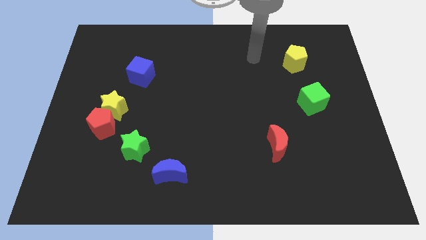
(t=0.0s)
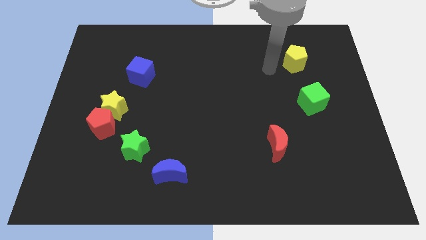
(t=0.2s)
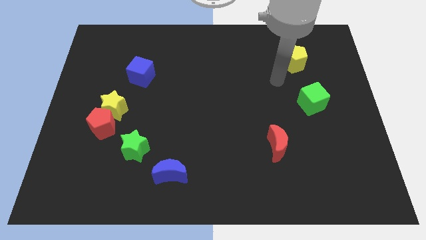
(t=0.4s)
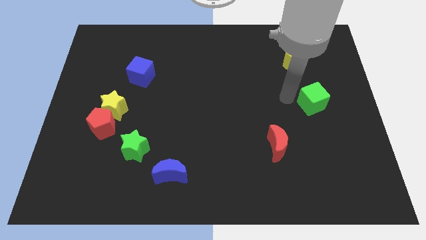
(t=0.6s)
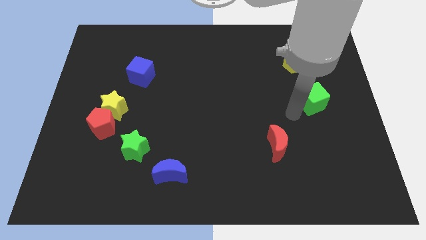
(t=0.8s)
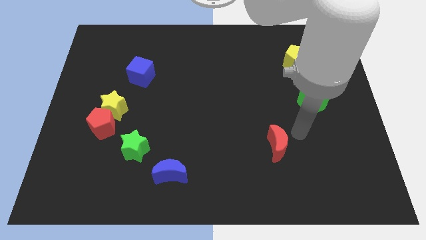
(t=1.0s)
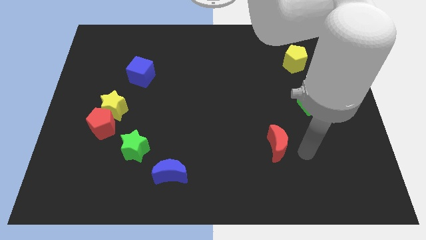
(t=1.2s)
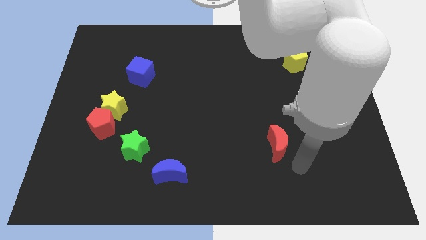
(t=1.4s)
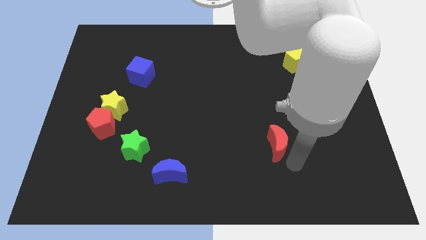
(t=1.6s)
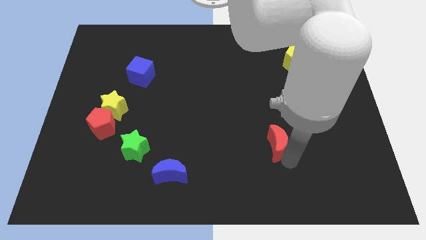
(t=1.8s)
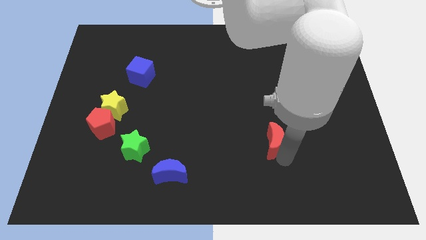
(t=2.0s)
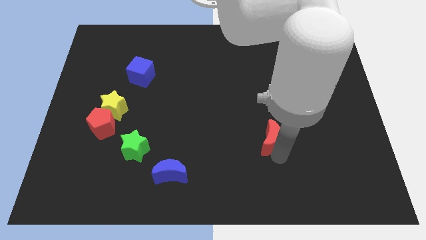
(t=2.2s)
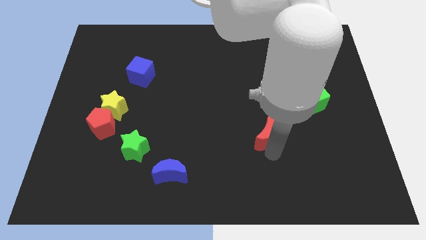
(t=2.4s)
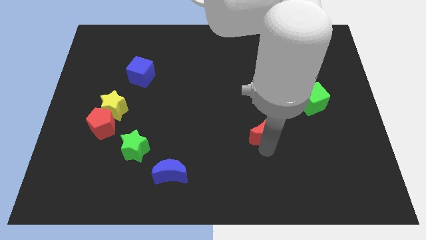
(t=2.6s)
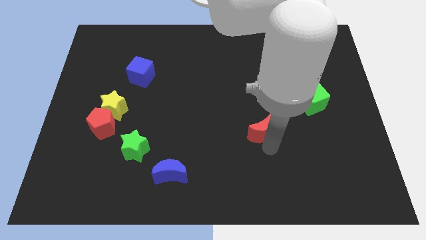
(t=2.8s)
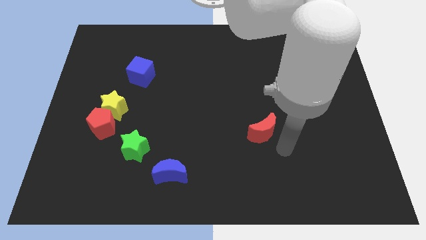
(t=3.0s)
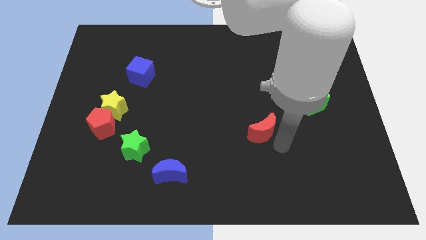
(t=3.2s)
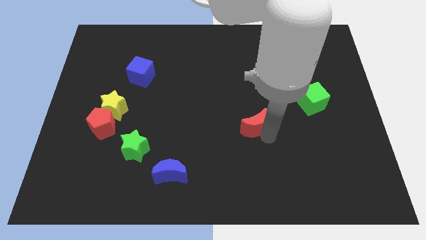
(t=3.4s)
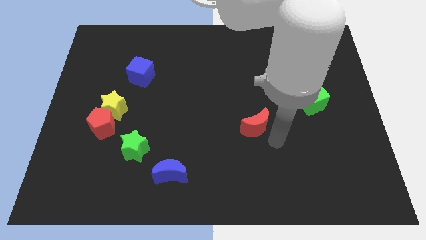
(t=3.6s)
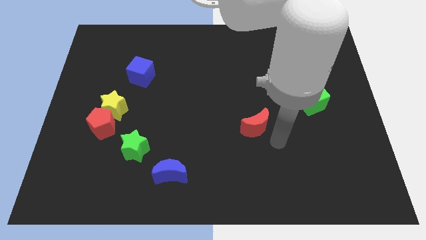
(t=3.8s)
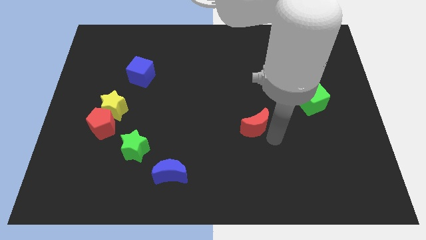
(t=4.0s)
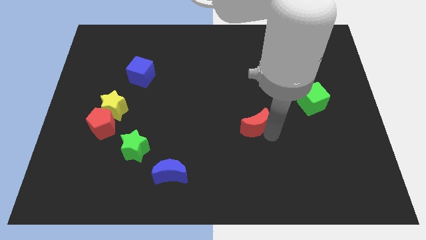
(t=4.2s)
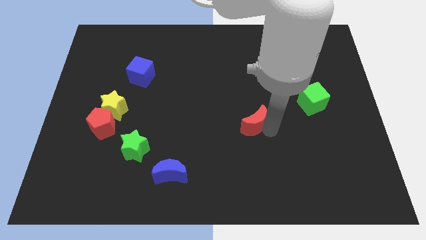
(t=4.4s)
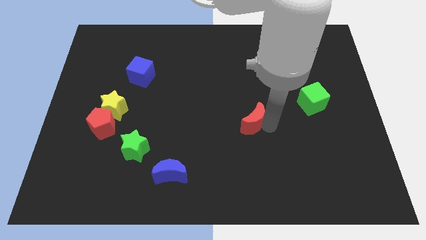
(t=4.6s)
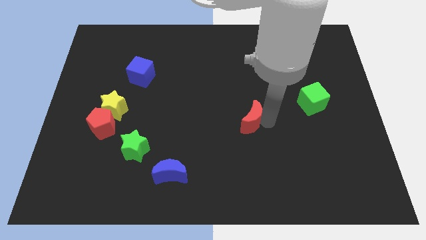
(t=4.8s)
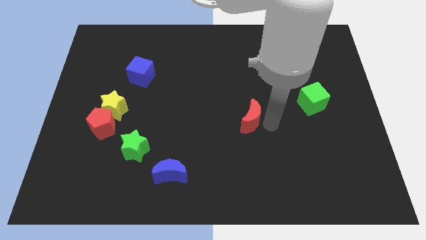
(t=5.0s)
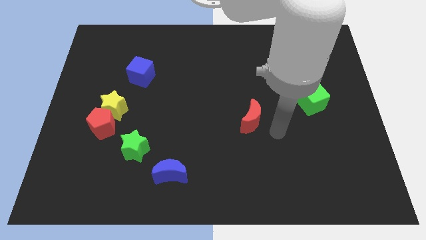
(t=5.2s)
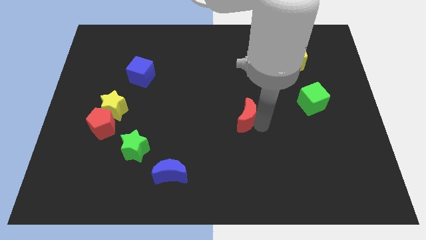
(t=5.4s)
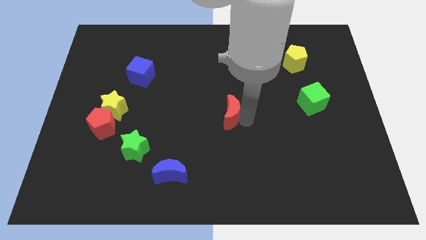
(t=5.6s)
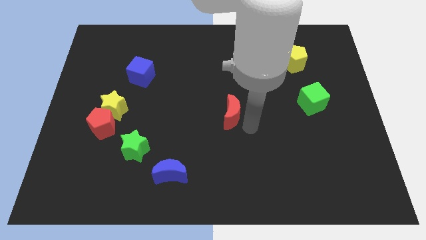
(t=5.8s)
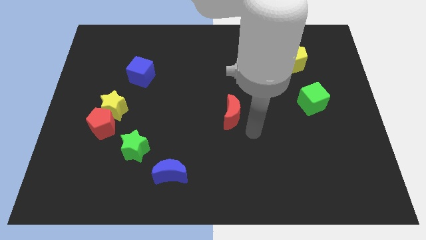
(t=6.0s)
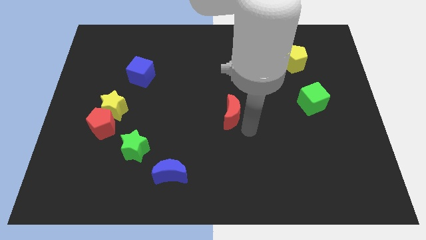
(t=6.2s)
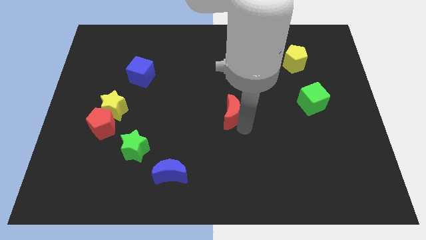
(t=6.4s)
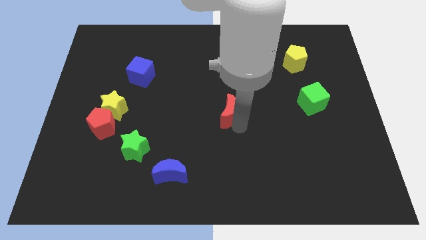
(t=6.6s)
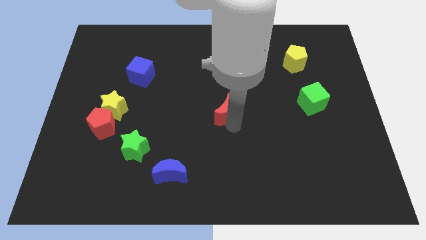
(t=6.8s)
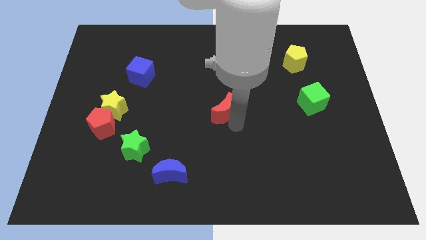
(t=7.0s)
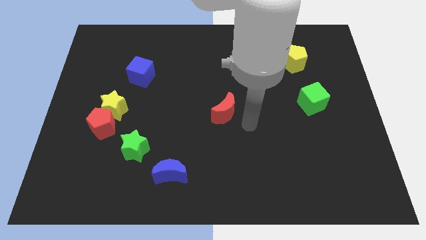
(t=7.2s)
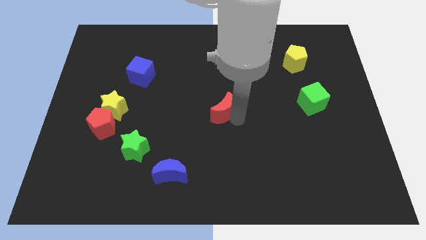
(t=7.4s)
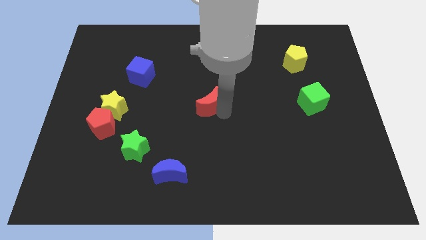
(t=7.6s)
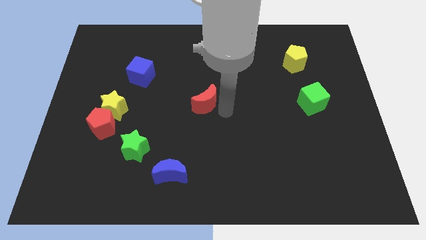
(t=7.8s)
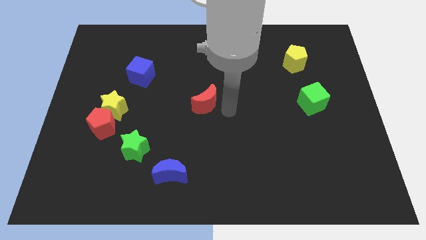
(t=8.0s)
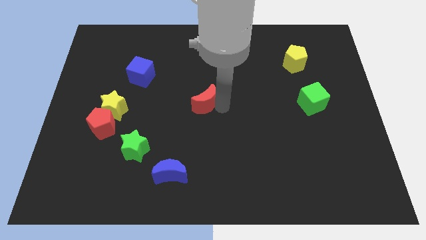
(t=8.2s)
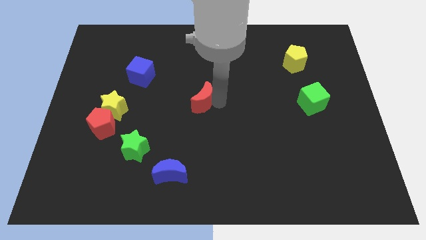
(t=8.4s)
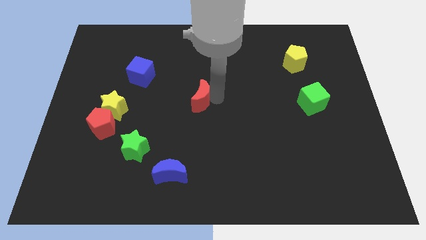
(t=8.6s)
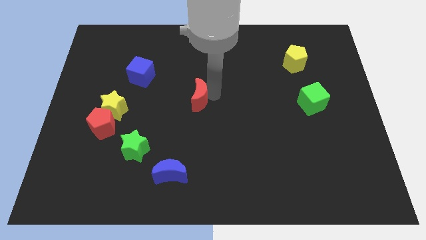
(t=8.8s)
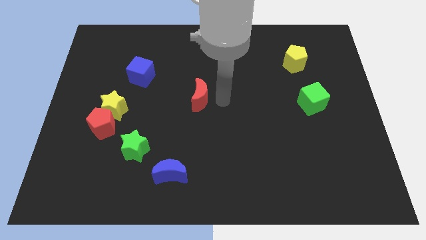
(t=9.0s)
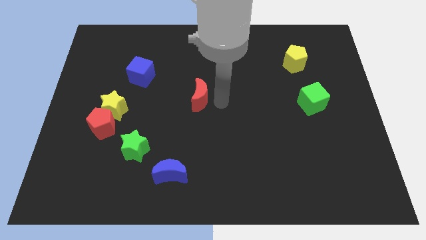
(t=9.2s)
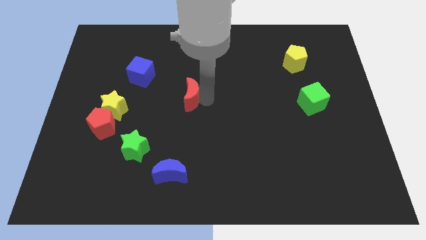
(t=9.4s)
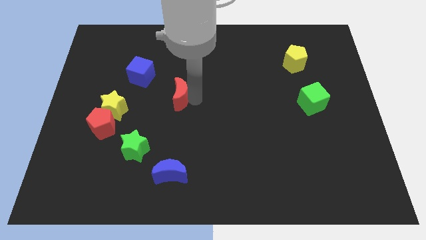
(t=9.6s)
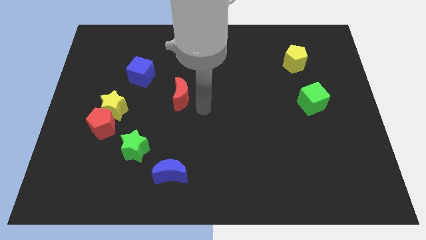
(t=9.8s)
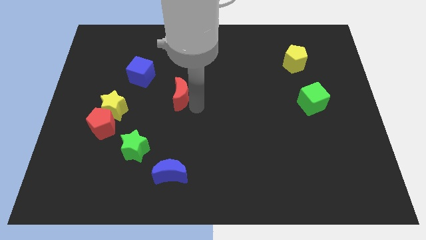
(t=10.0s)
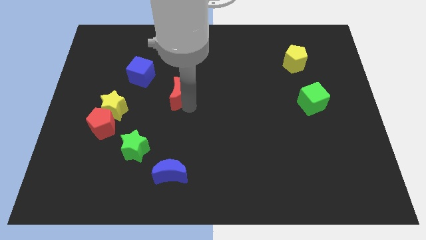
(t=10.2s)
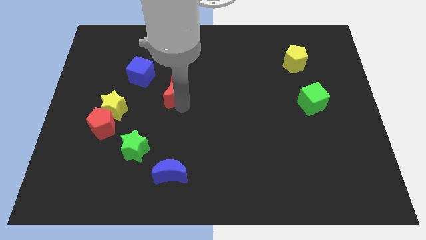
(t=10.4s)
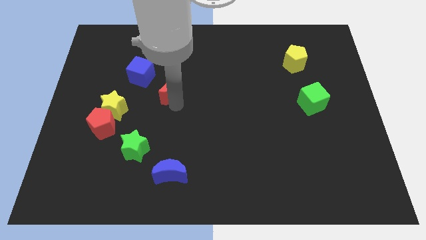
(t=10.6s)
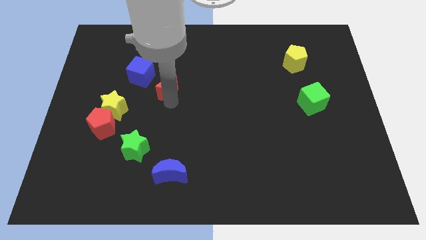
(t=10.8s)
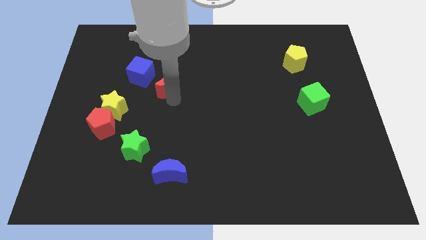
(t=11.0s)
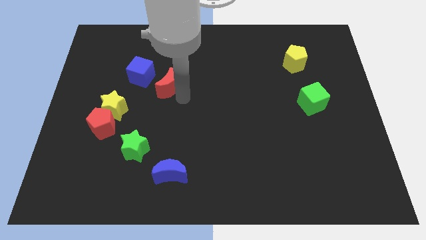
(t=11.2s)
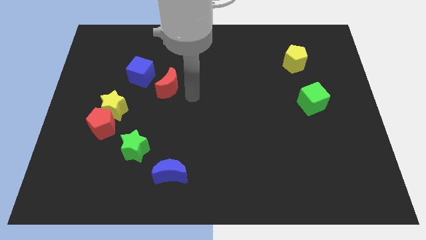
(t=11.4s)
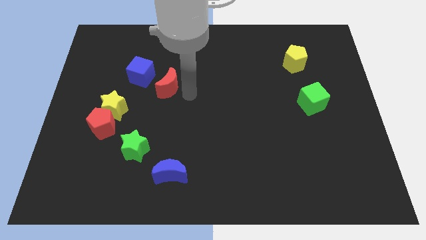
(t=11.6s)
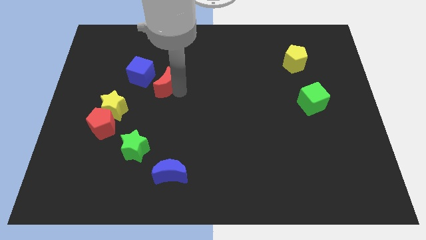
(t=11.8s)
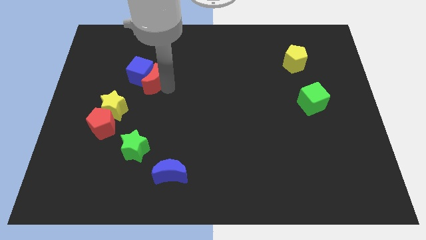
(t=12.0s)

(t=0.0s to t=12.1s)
push the red moon to the blue cube

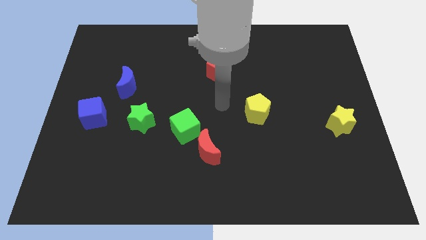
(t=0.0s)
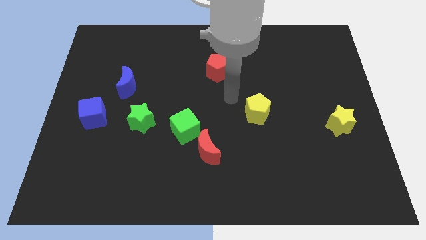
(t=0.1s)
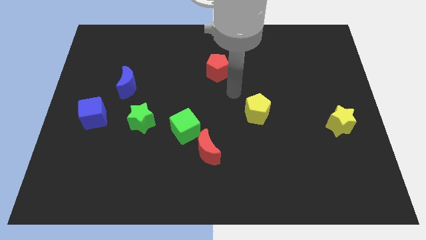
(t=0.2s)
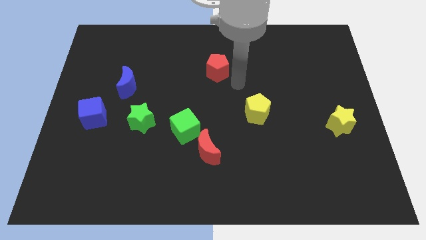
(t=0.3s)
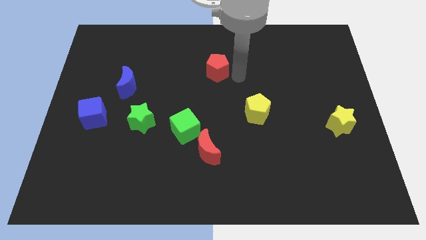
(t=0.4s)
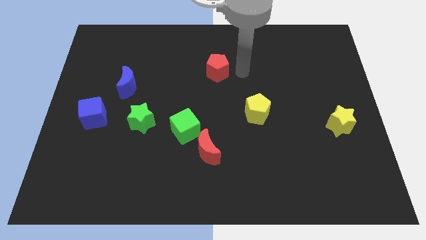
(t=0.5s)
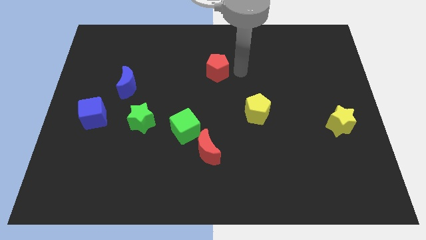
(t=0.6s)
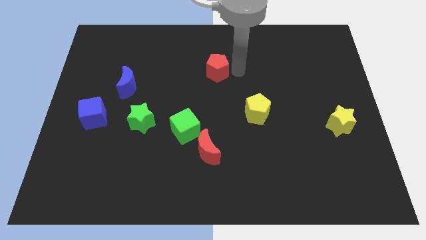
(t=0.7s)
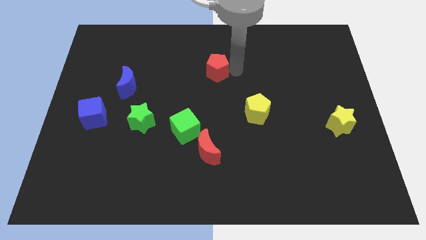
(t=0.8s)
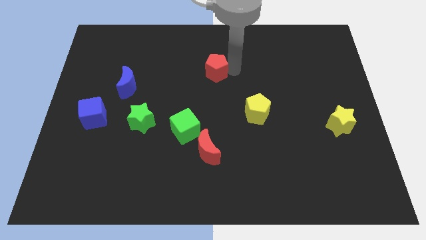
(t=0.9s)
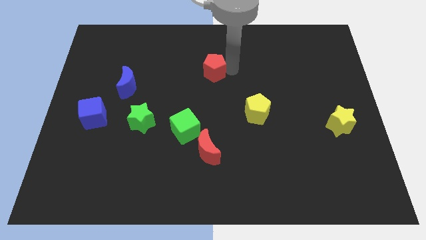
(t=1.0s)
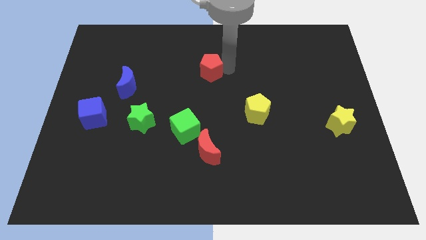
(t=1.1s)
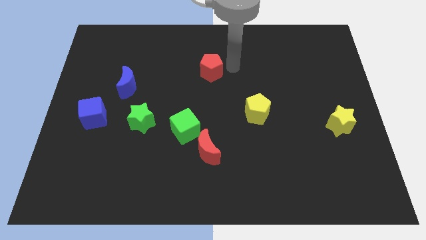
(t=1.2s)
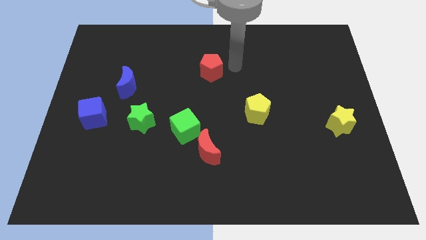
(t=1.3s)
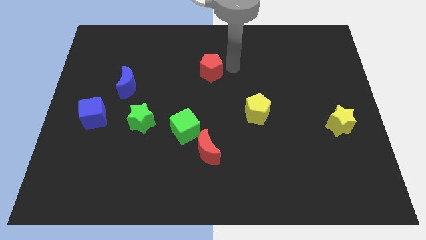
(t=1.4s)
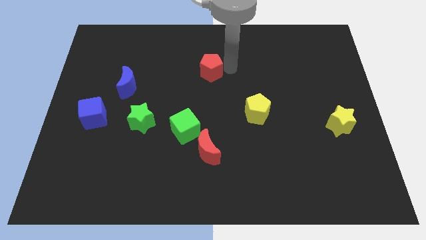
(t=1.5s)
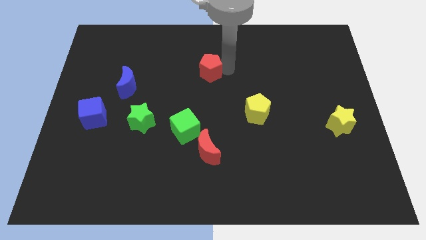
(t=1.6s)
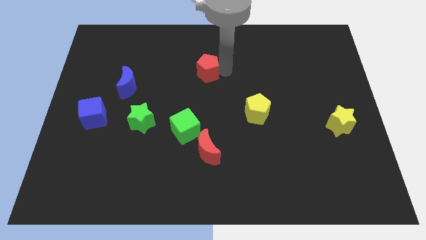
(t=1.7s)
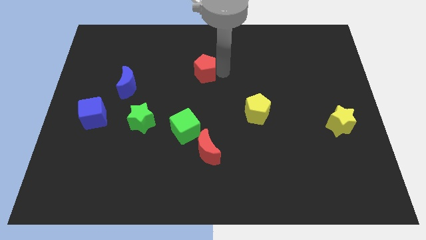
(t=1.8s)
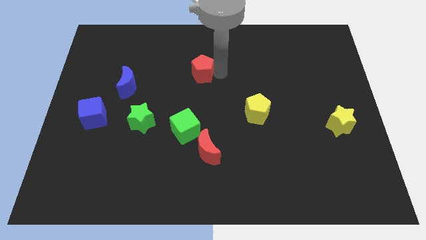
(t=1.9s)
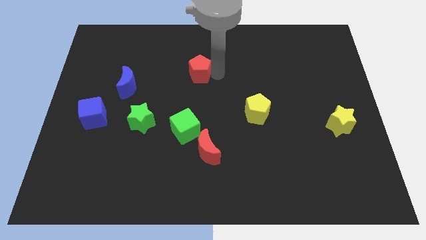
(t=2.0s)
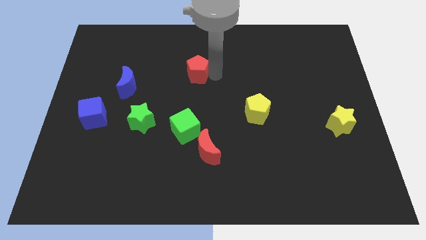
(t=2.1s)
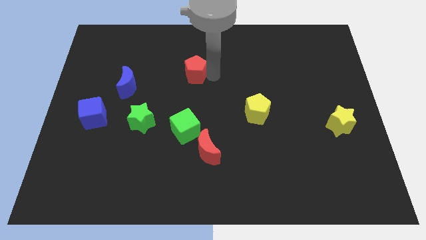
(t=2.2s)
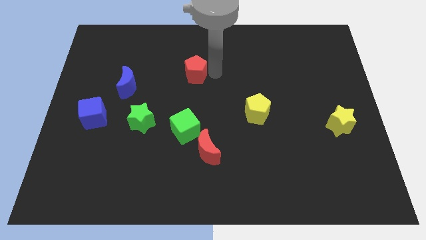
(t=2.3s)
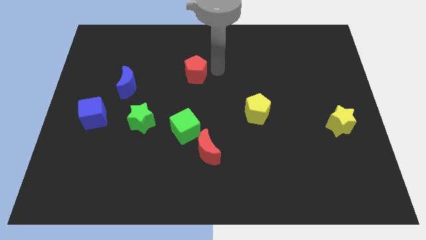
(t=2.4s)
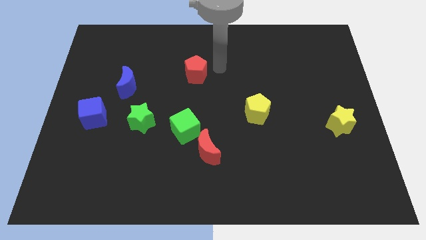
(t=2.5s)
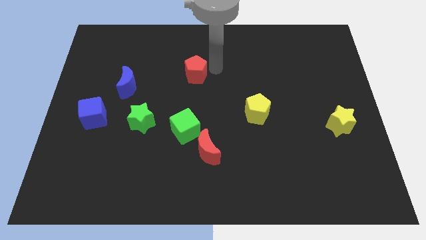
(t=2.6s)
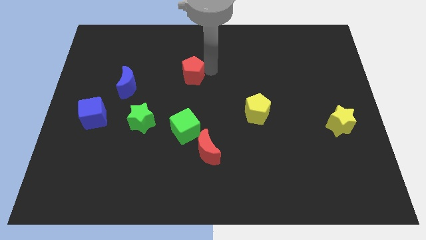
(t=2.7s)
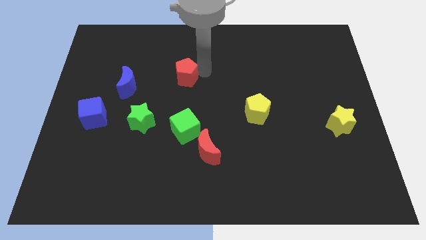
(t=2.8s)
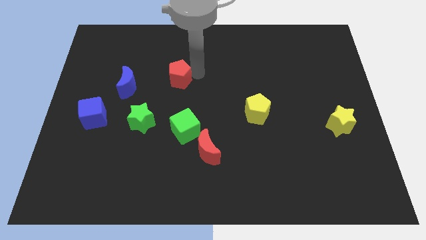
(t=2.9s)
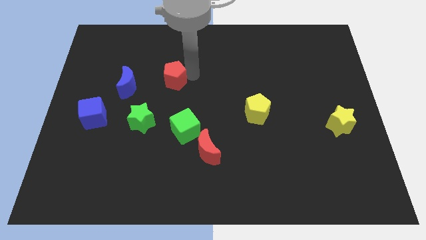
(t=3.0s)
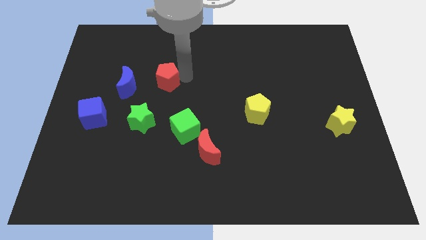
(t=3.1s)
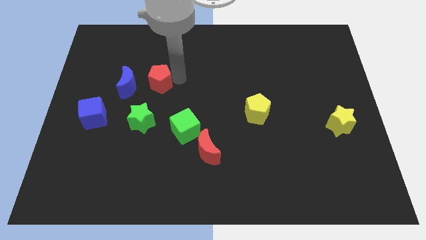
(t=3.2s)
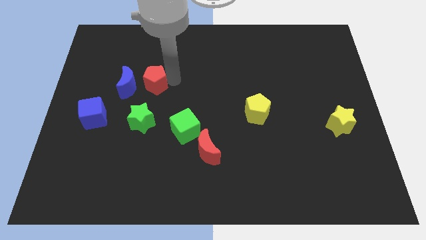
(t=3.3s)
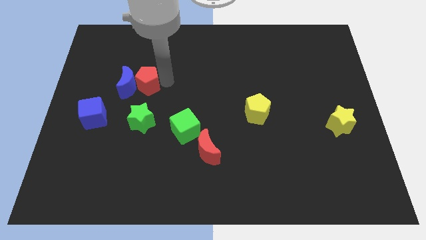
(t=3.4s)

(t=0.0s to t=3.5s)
slide the red pentagon next to the blue moon
